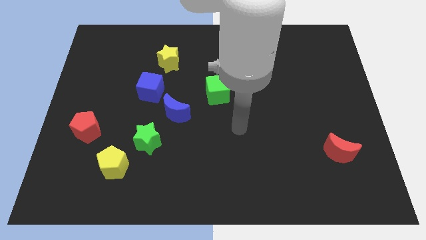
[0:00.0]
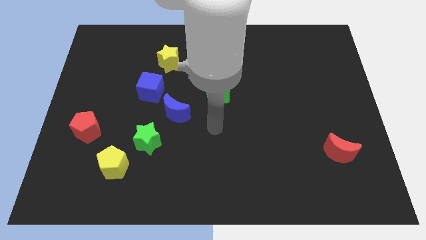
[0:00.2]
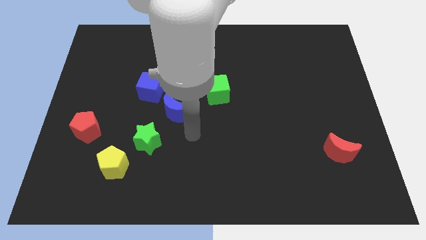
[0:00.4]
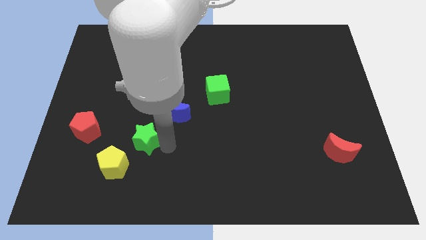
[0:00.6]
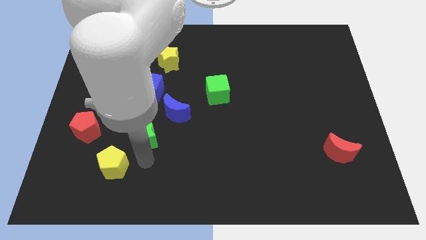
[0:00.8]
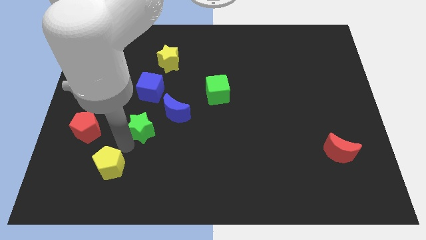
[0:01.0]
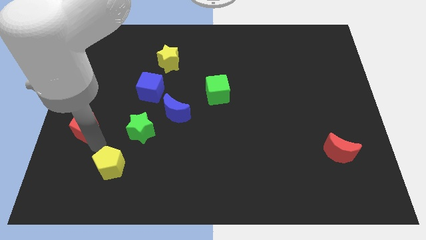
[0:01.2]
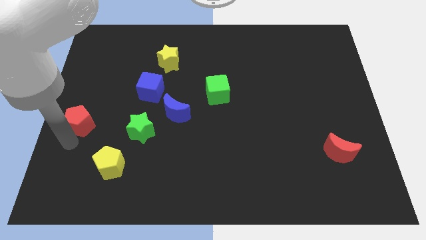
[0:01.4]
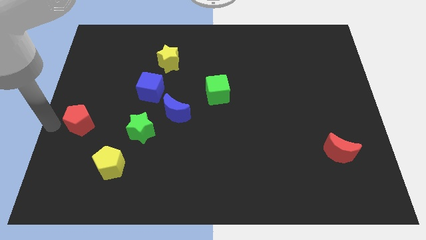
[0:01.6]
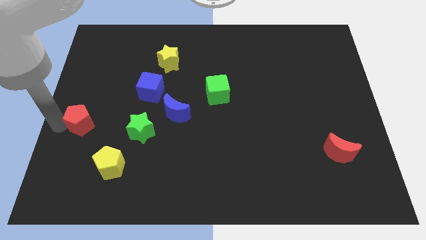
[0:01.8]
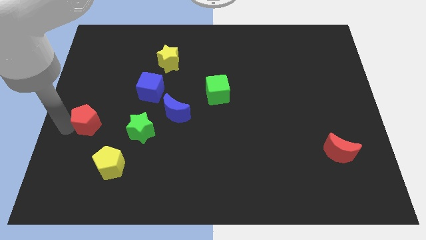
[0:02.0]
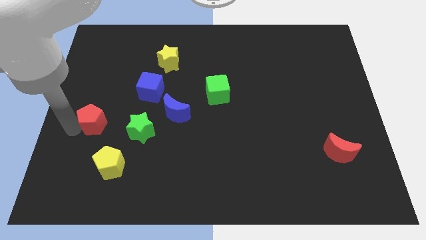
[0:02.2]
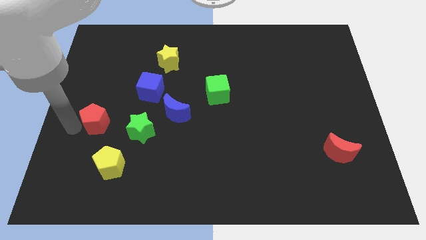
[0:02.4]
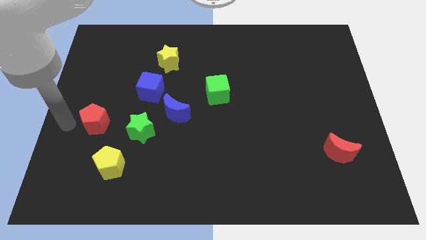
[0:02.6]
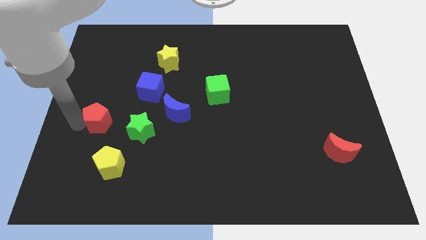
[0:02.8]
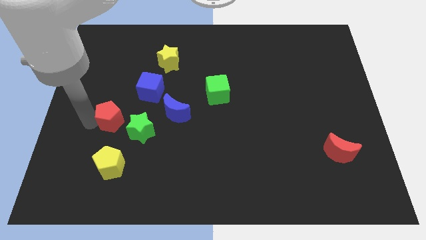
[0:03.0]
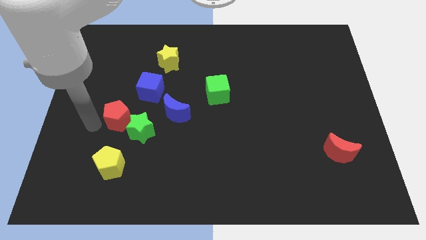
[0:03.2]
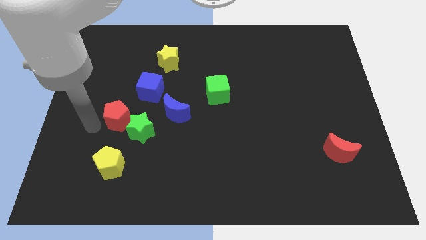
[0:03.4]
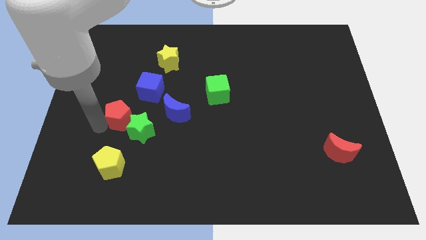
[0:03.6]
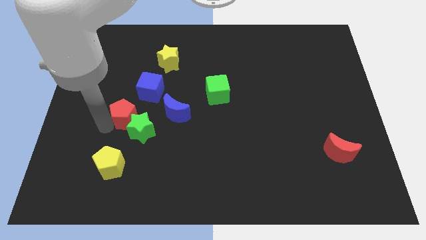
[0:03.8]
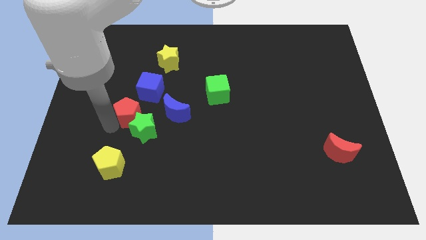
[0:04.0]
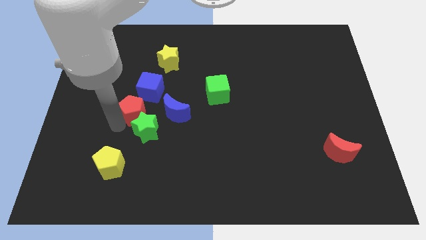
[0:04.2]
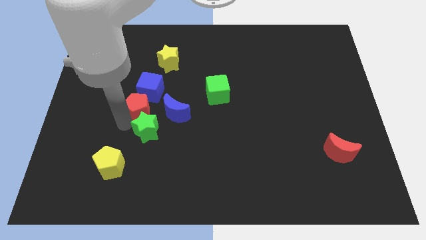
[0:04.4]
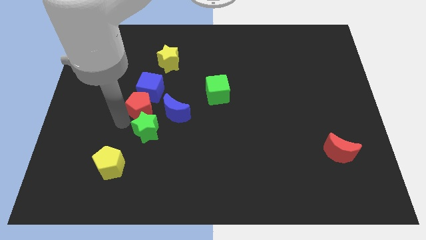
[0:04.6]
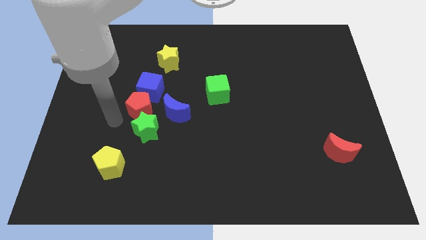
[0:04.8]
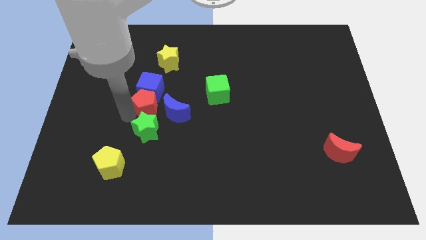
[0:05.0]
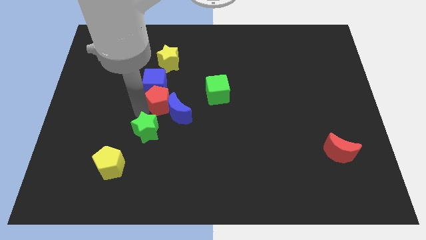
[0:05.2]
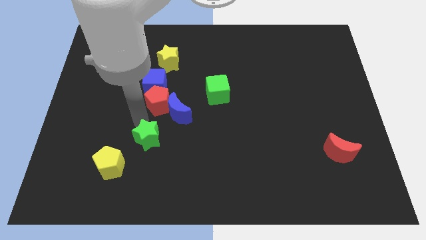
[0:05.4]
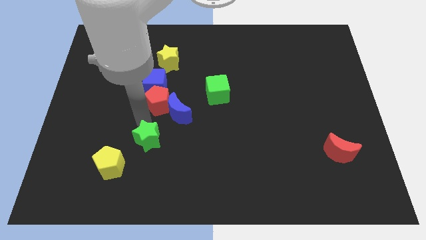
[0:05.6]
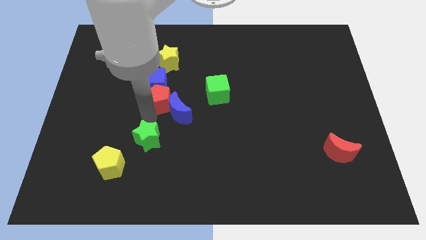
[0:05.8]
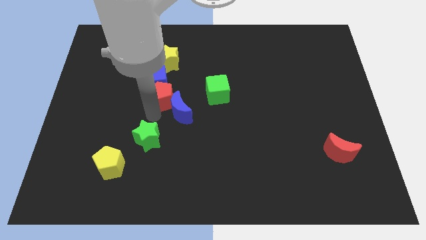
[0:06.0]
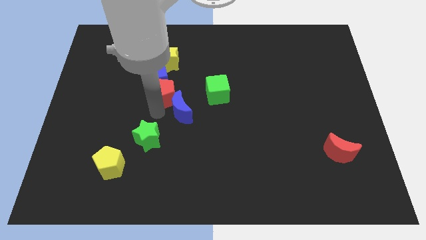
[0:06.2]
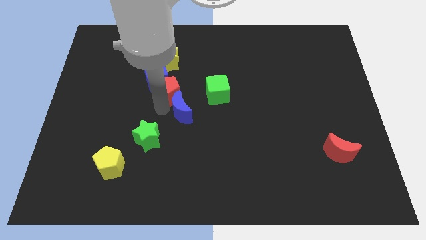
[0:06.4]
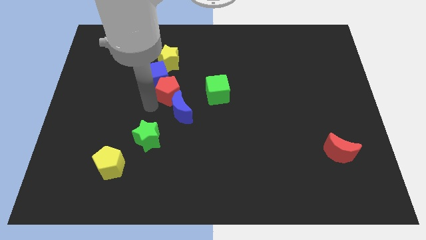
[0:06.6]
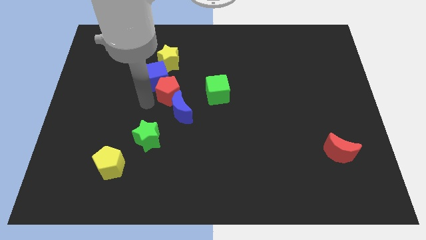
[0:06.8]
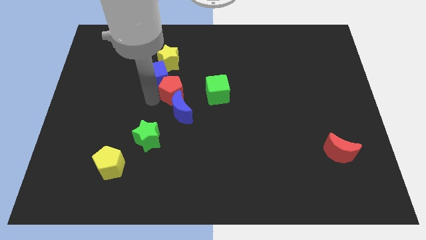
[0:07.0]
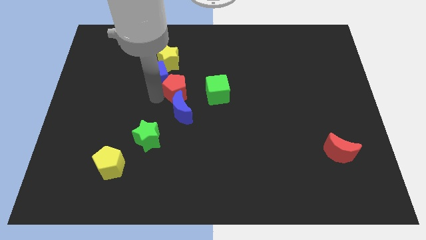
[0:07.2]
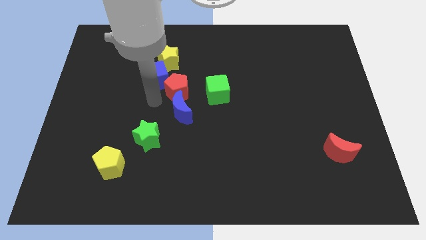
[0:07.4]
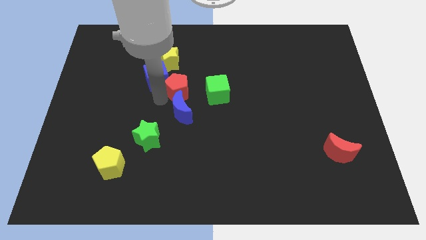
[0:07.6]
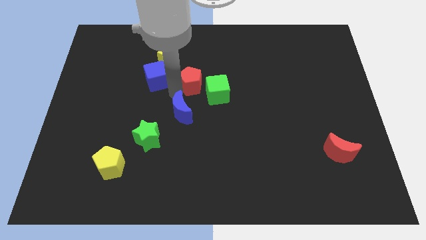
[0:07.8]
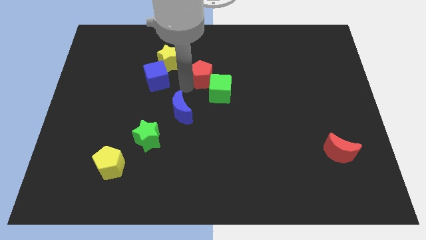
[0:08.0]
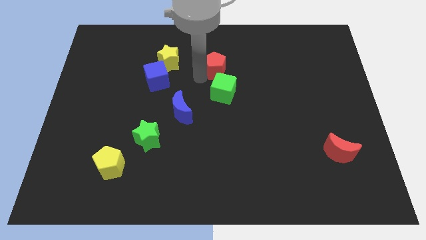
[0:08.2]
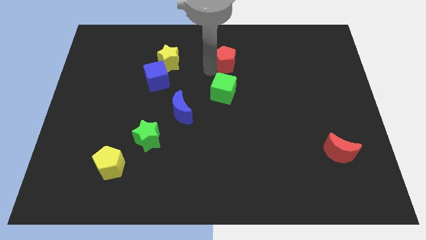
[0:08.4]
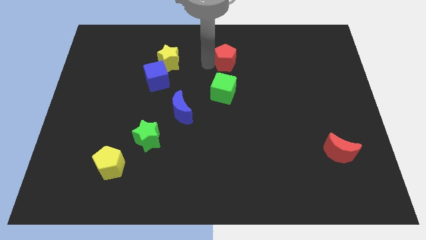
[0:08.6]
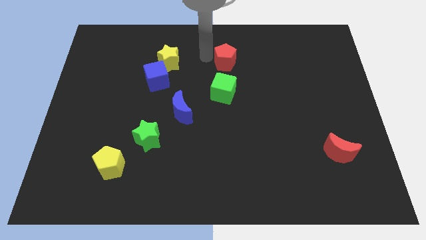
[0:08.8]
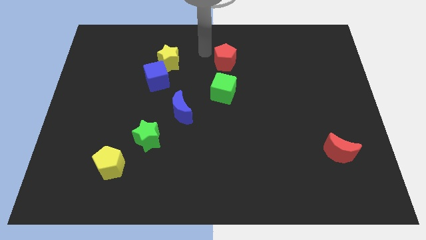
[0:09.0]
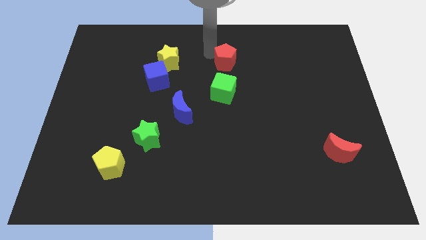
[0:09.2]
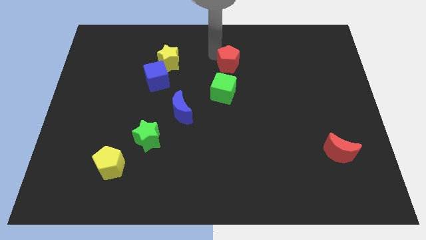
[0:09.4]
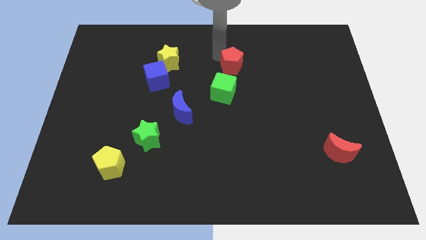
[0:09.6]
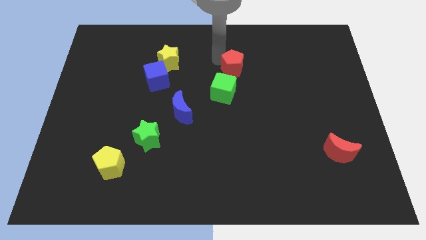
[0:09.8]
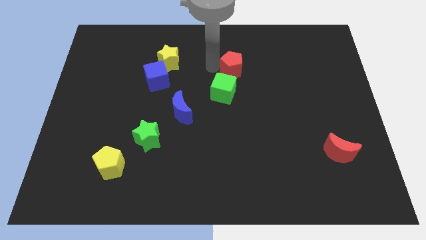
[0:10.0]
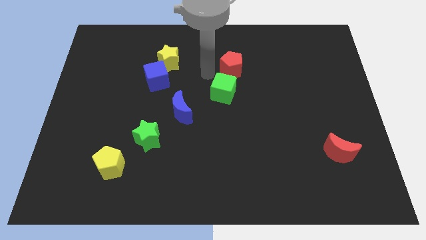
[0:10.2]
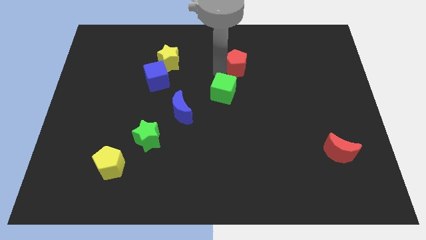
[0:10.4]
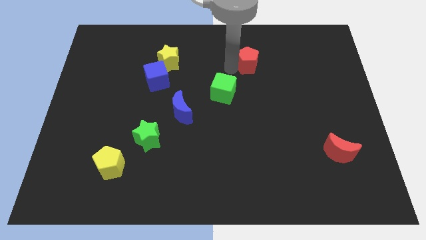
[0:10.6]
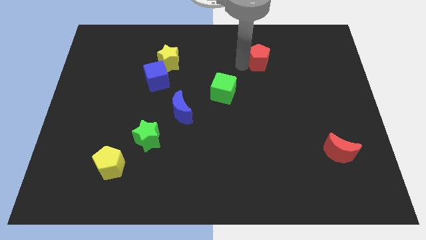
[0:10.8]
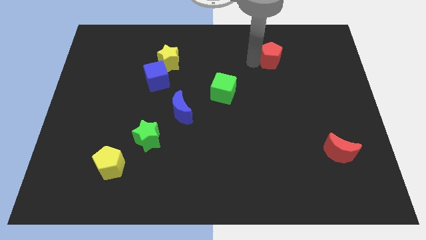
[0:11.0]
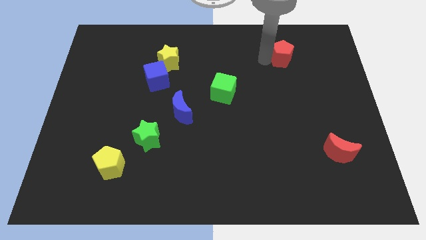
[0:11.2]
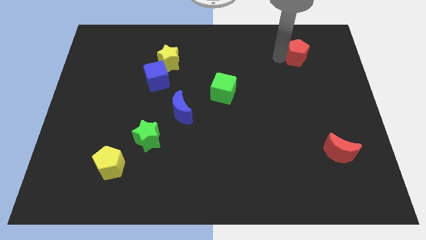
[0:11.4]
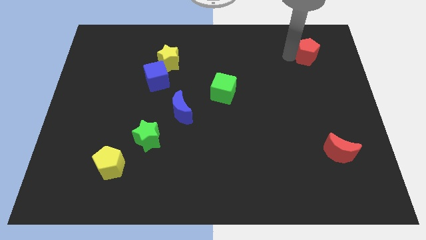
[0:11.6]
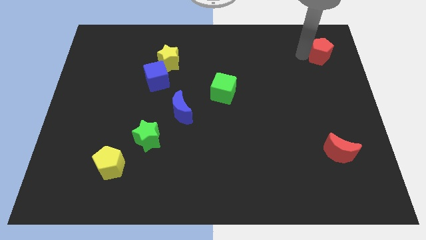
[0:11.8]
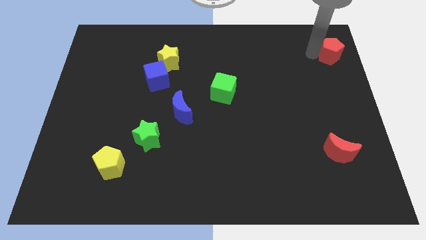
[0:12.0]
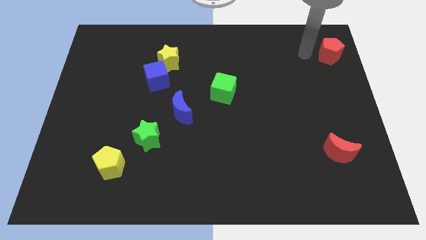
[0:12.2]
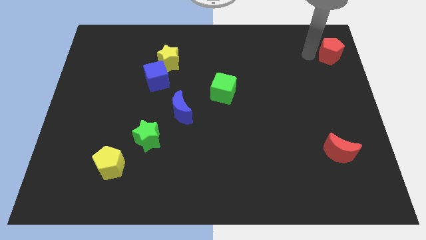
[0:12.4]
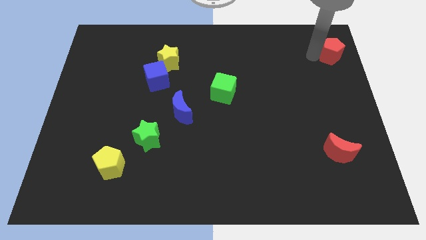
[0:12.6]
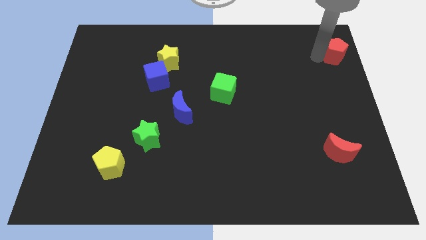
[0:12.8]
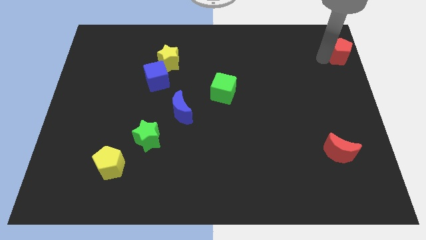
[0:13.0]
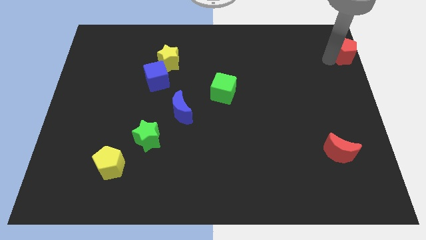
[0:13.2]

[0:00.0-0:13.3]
move the red pentagon to the top right of the board
